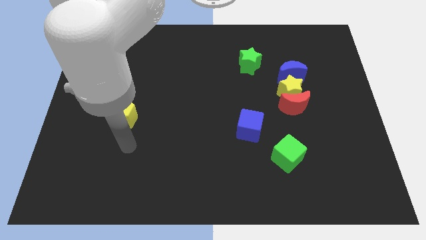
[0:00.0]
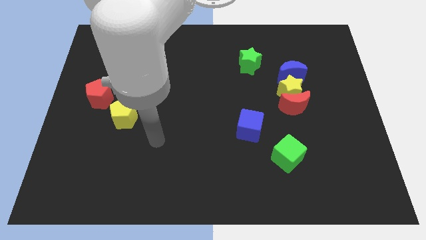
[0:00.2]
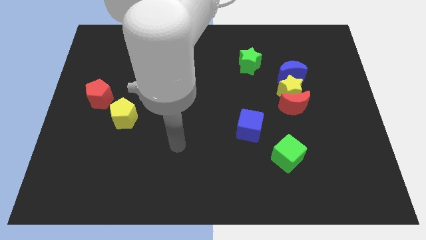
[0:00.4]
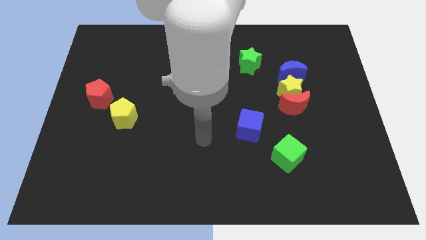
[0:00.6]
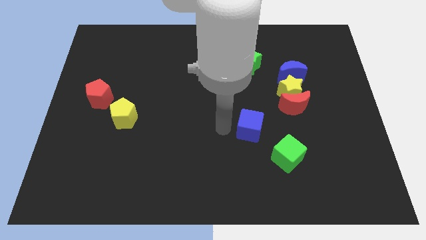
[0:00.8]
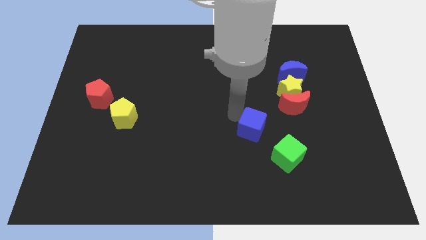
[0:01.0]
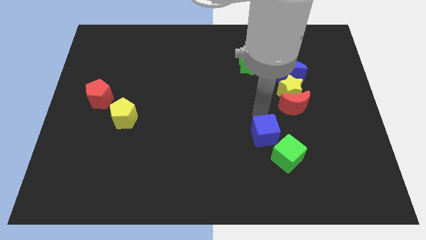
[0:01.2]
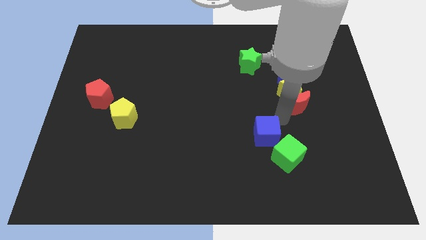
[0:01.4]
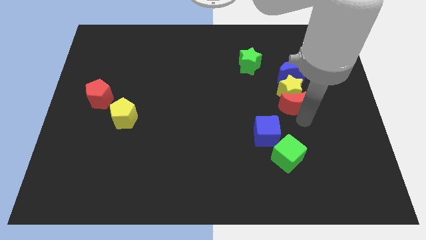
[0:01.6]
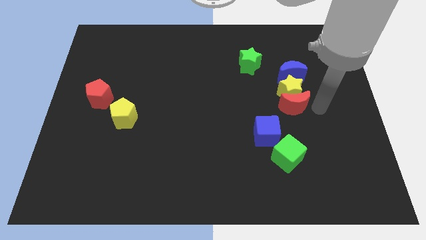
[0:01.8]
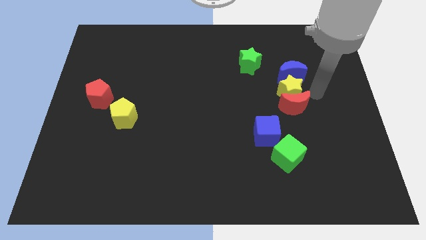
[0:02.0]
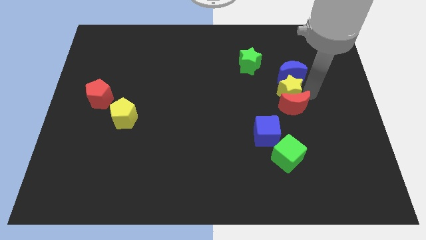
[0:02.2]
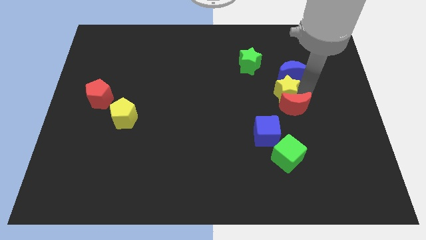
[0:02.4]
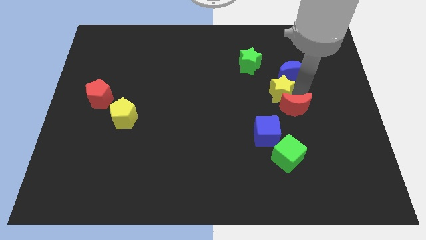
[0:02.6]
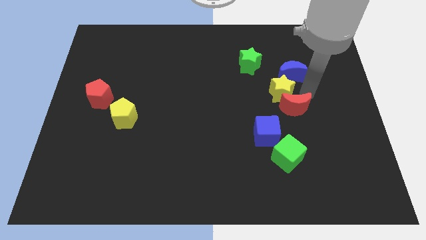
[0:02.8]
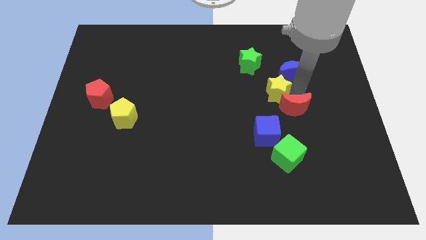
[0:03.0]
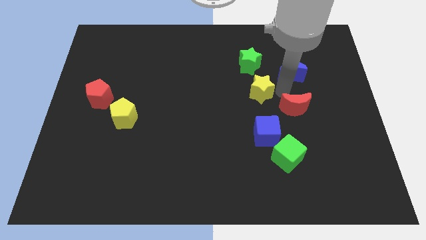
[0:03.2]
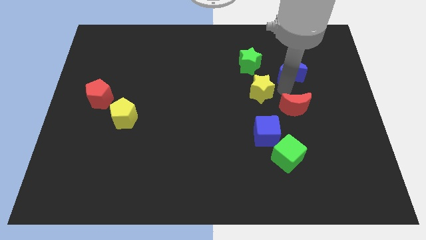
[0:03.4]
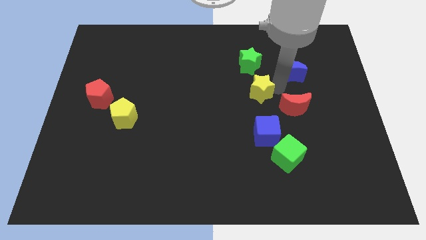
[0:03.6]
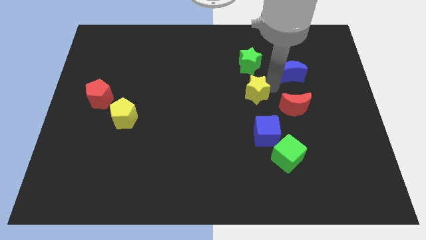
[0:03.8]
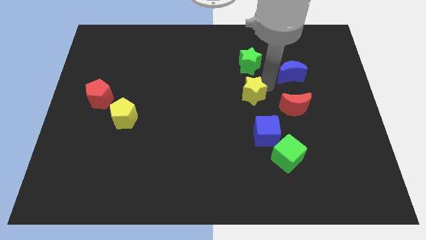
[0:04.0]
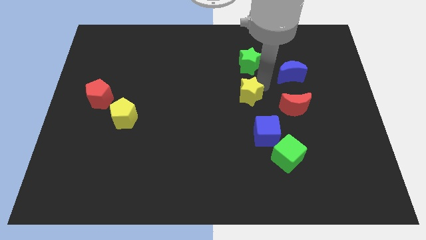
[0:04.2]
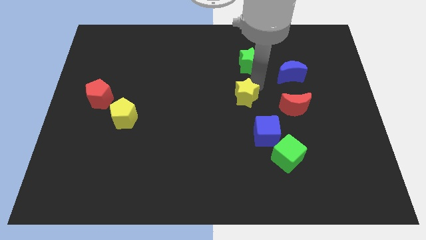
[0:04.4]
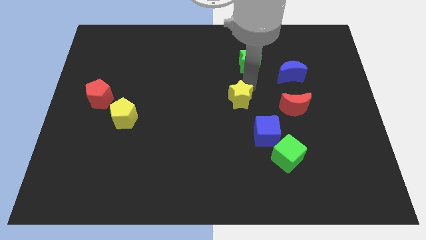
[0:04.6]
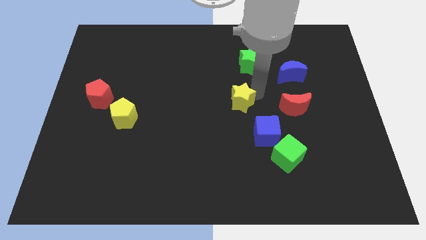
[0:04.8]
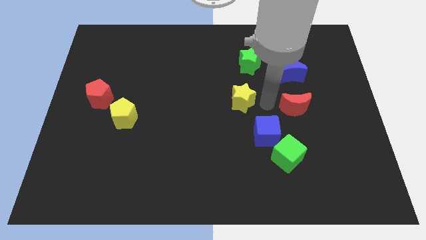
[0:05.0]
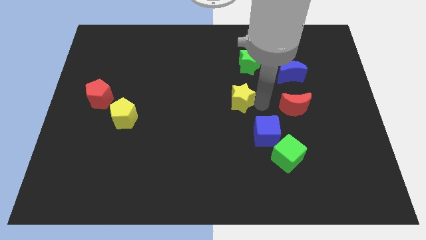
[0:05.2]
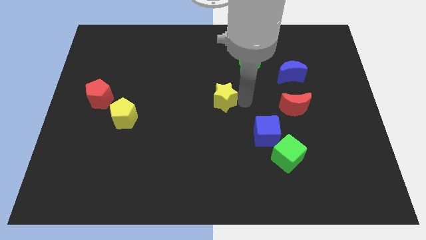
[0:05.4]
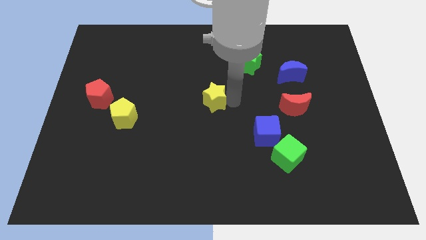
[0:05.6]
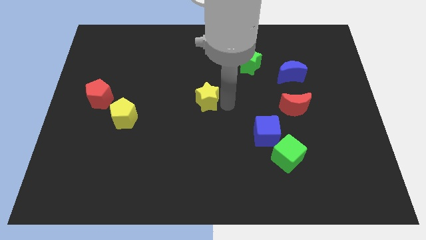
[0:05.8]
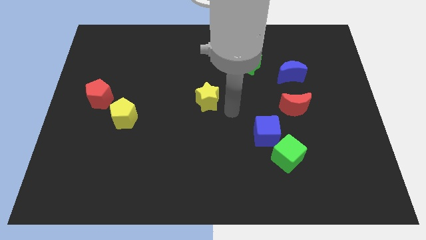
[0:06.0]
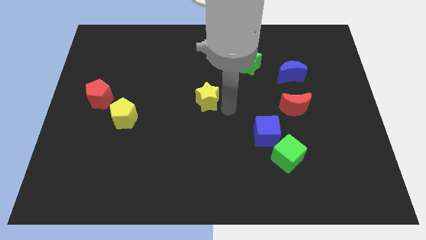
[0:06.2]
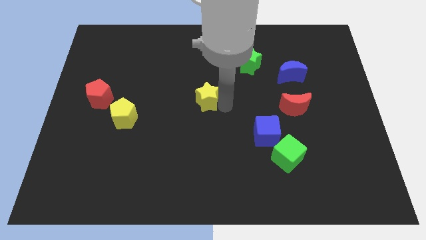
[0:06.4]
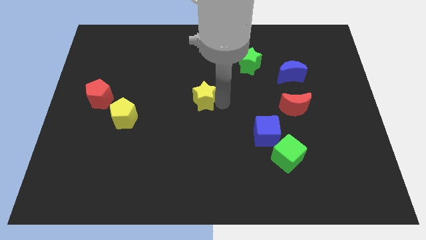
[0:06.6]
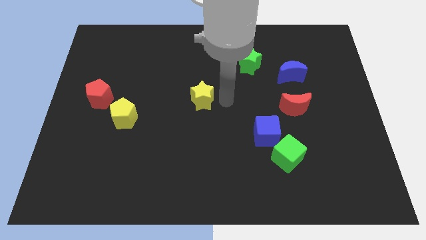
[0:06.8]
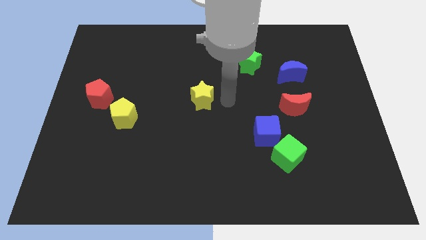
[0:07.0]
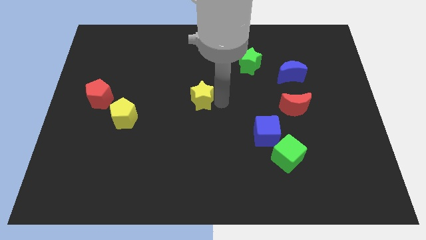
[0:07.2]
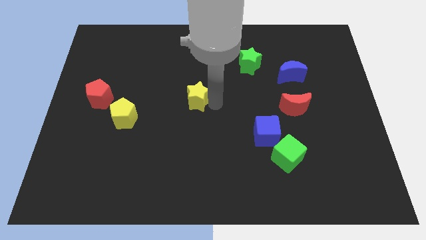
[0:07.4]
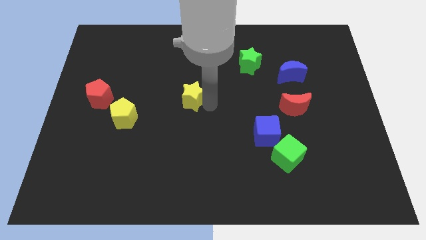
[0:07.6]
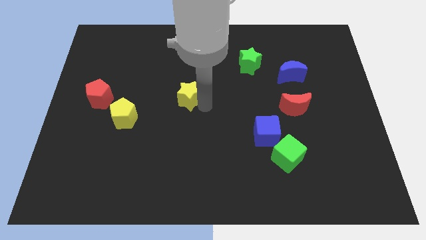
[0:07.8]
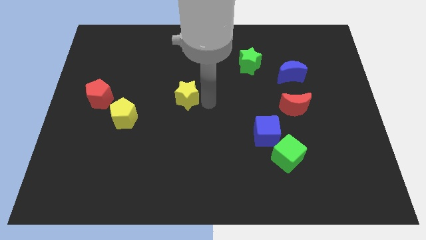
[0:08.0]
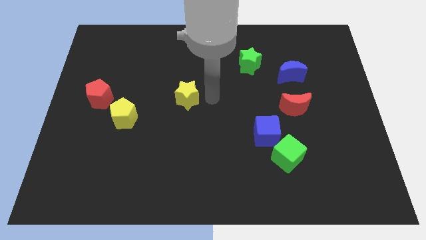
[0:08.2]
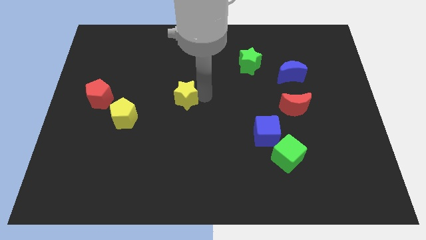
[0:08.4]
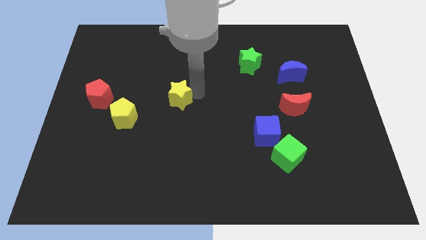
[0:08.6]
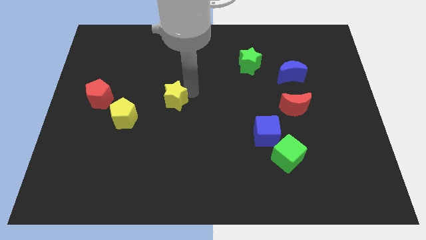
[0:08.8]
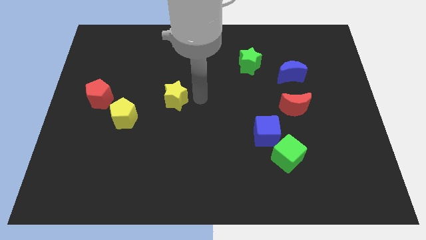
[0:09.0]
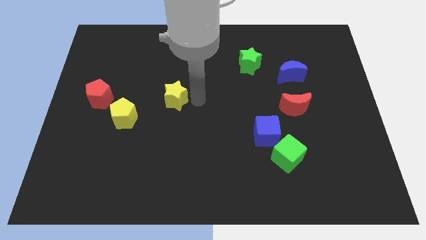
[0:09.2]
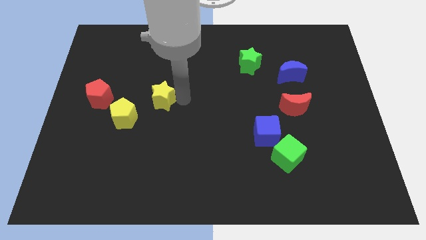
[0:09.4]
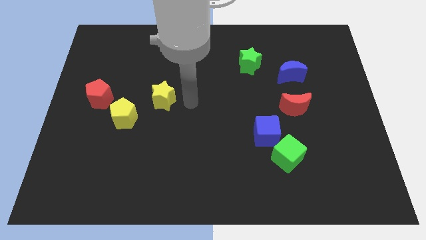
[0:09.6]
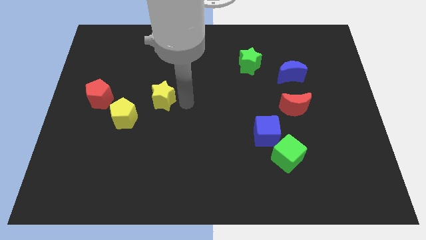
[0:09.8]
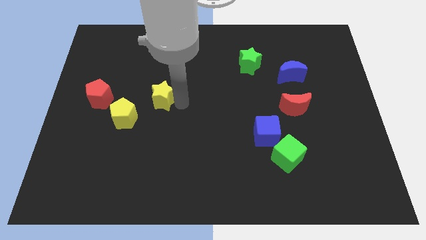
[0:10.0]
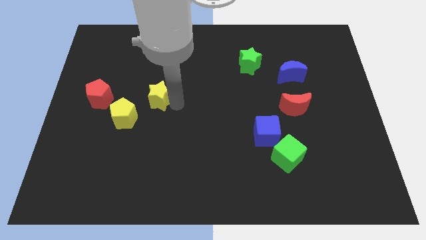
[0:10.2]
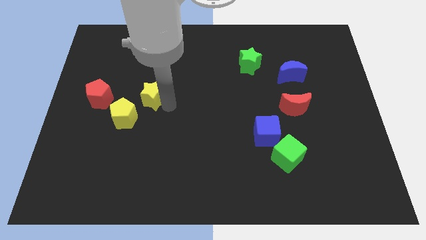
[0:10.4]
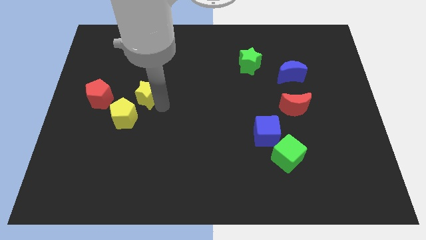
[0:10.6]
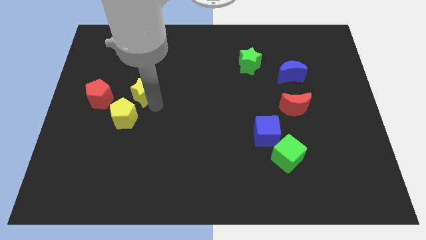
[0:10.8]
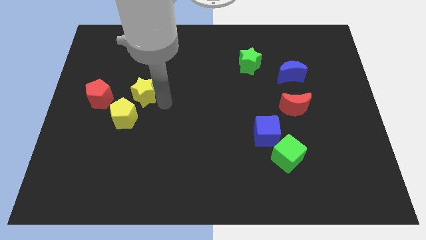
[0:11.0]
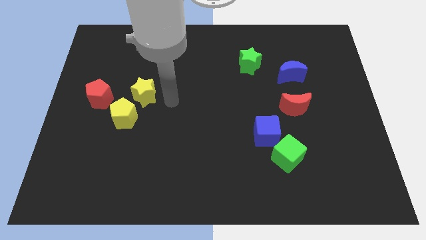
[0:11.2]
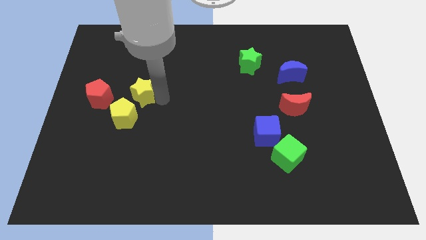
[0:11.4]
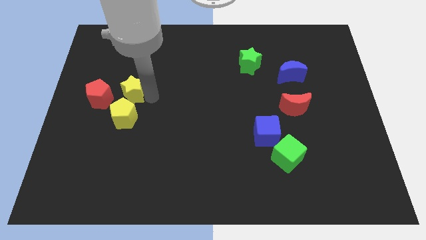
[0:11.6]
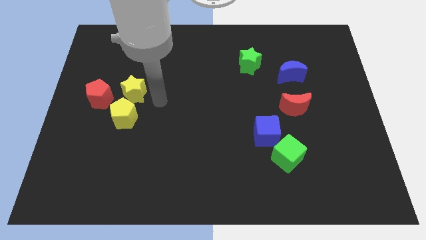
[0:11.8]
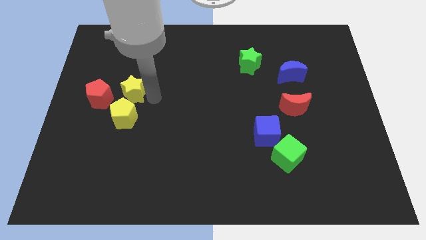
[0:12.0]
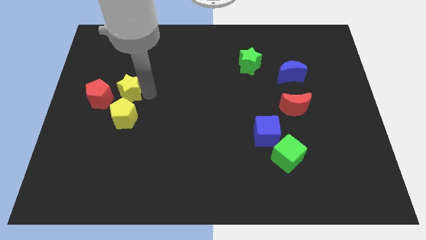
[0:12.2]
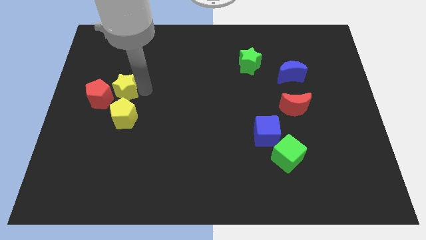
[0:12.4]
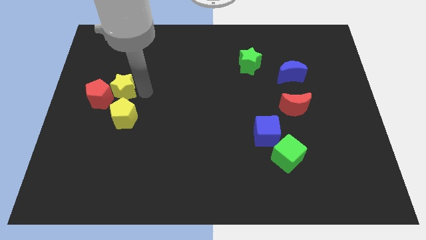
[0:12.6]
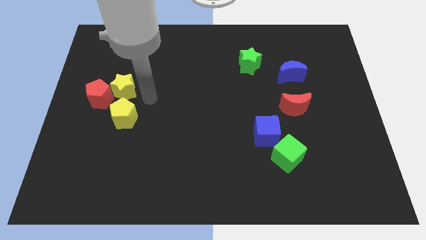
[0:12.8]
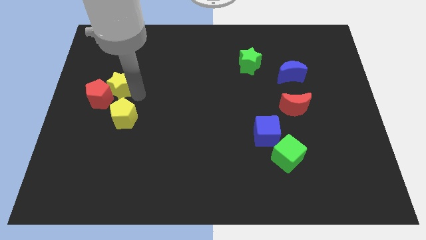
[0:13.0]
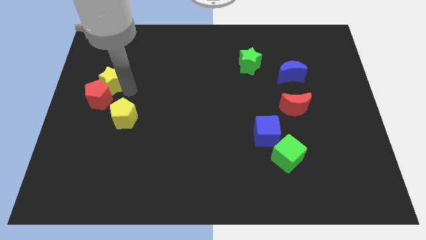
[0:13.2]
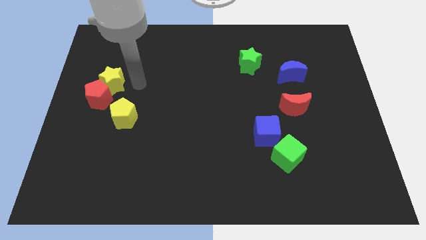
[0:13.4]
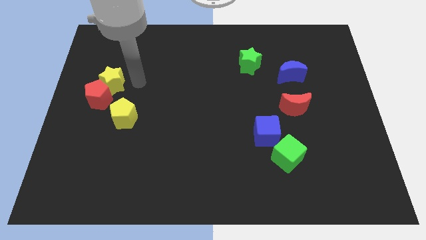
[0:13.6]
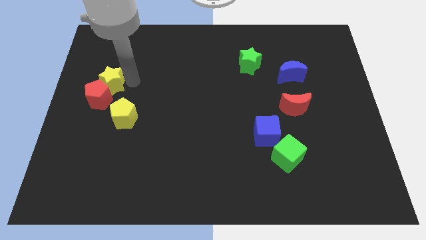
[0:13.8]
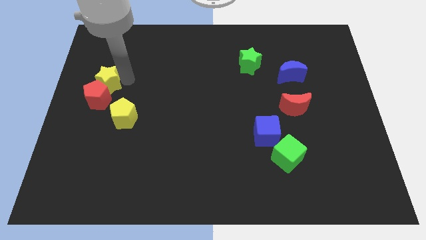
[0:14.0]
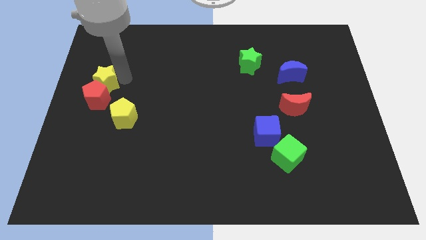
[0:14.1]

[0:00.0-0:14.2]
slide the yellow star to the left side of the board
